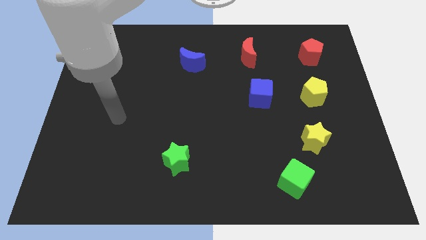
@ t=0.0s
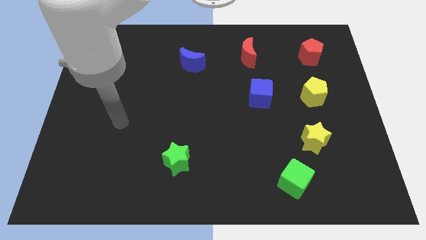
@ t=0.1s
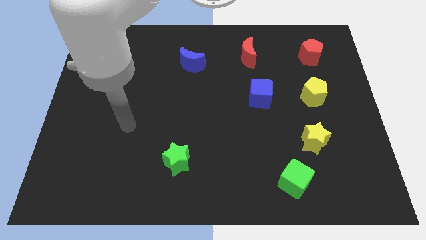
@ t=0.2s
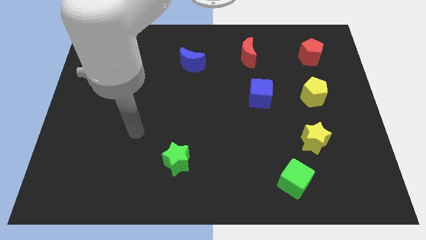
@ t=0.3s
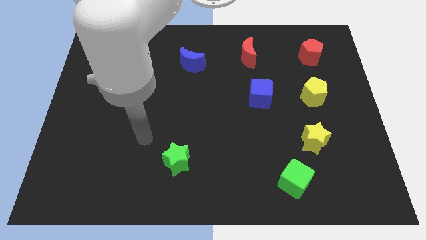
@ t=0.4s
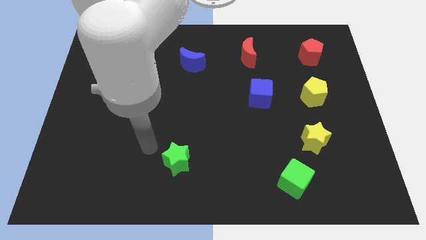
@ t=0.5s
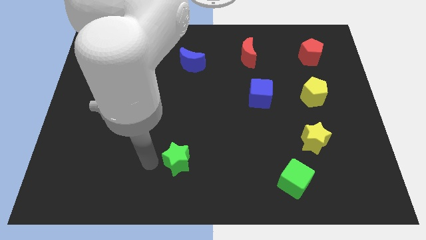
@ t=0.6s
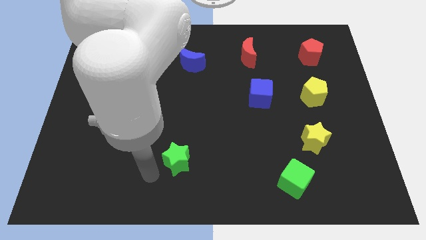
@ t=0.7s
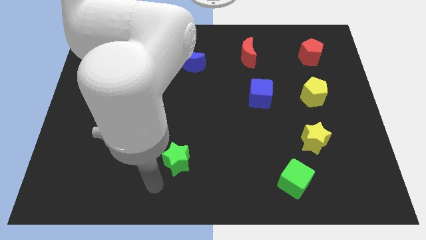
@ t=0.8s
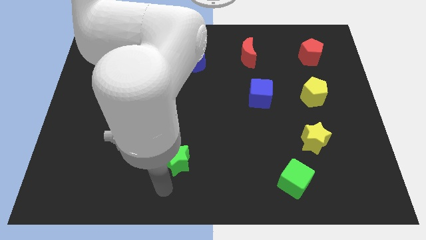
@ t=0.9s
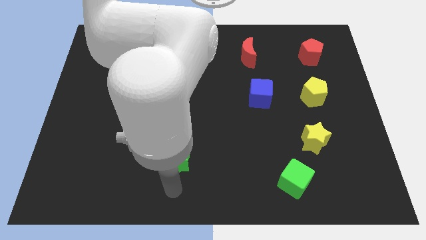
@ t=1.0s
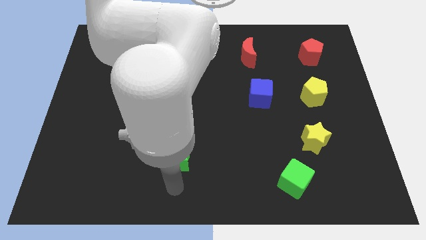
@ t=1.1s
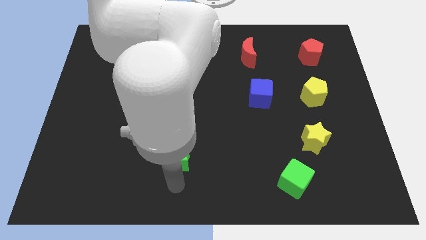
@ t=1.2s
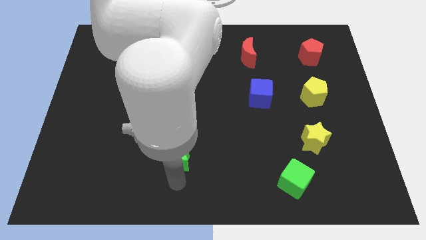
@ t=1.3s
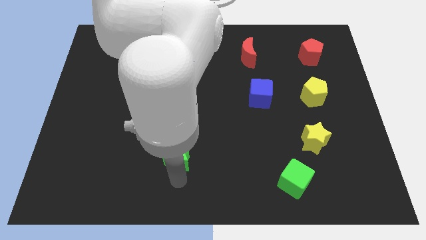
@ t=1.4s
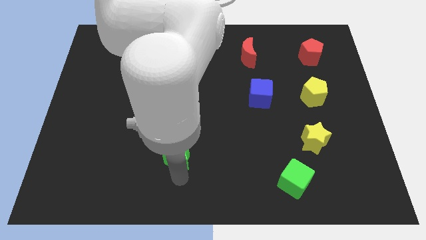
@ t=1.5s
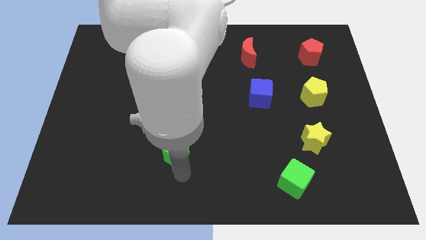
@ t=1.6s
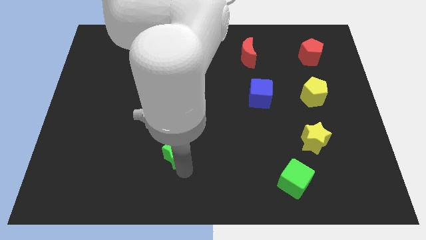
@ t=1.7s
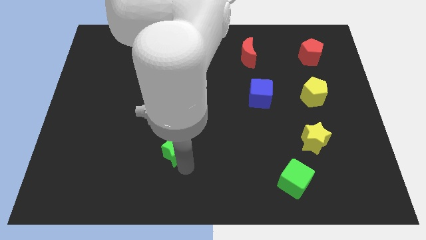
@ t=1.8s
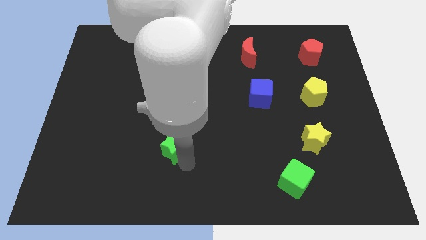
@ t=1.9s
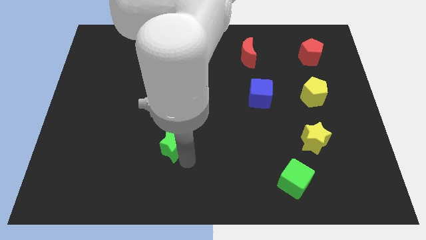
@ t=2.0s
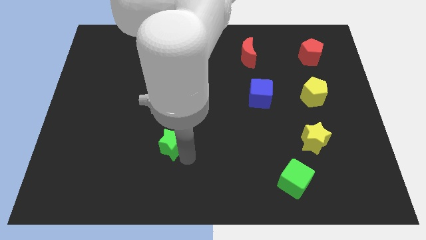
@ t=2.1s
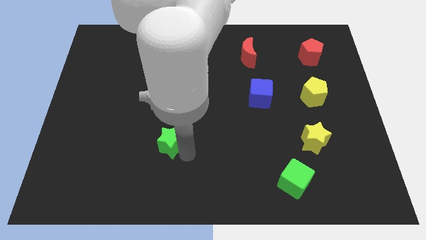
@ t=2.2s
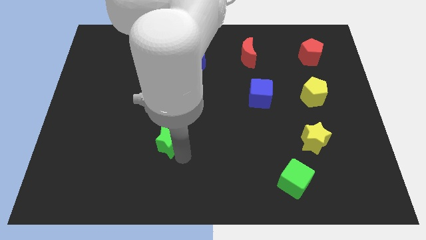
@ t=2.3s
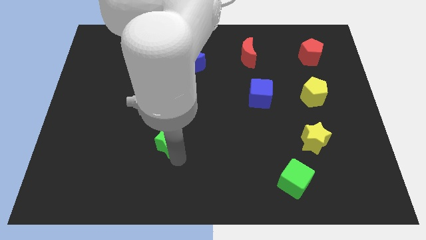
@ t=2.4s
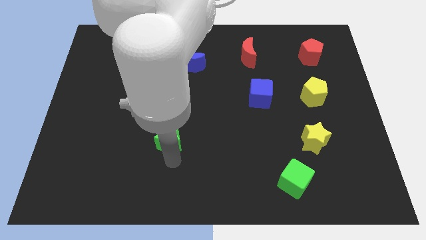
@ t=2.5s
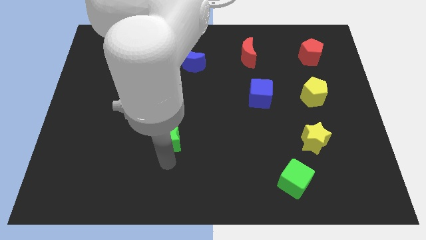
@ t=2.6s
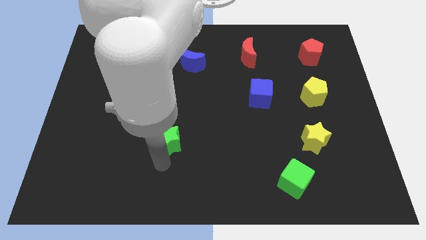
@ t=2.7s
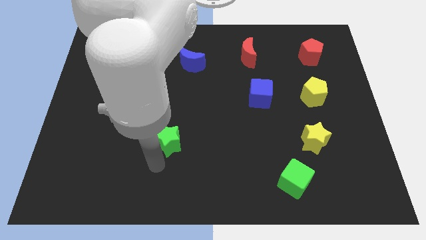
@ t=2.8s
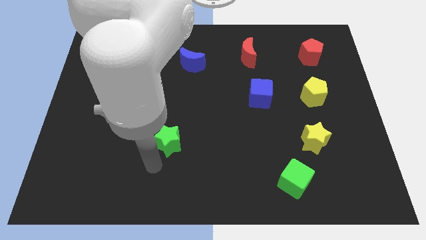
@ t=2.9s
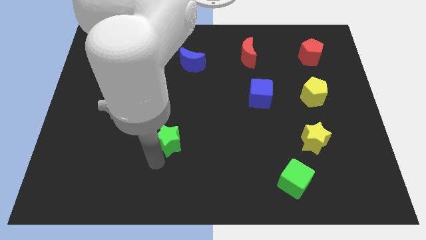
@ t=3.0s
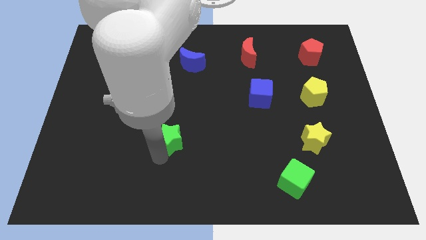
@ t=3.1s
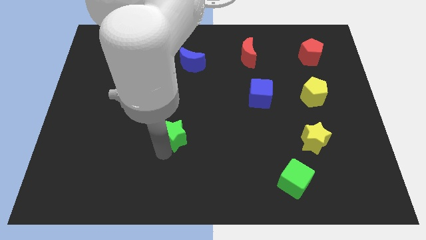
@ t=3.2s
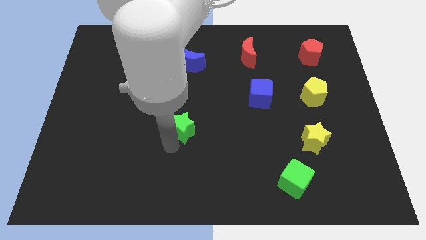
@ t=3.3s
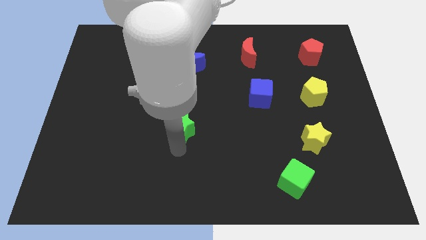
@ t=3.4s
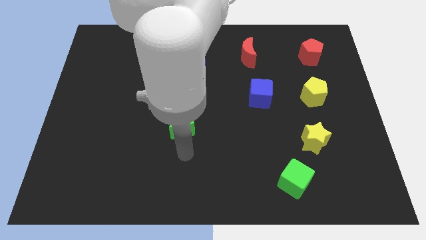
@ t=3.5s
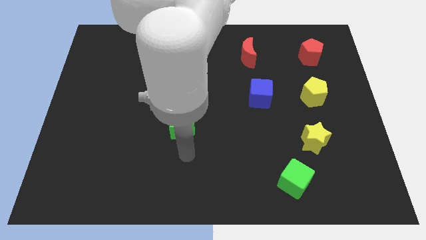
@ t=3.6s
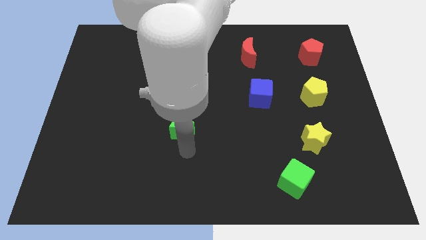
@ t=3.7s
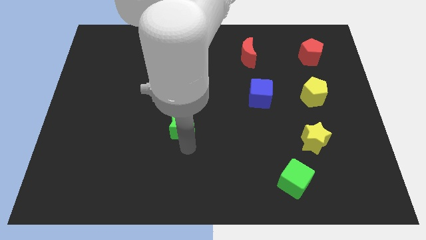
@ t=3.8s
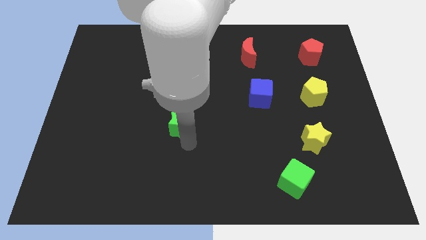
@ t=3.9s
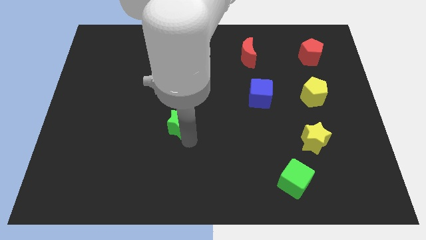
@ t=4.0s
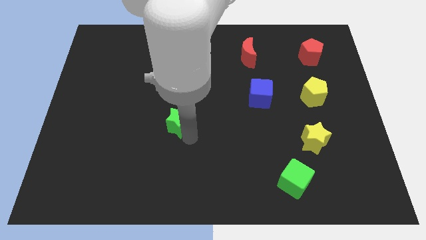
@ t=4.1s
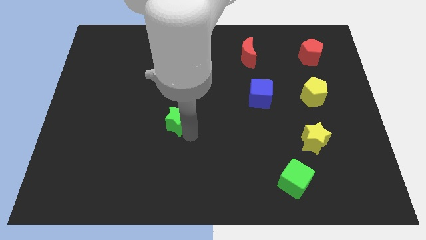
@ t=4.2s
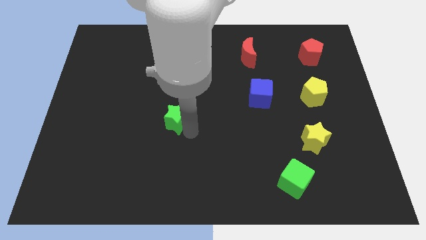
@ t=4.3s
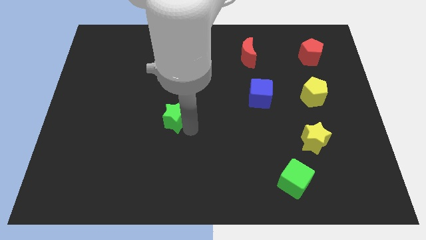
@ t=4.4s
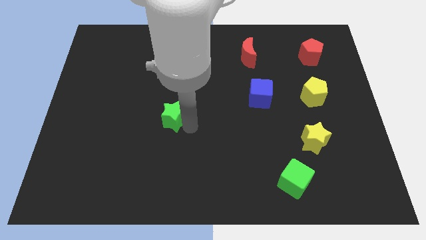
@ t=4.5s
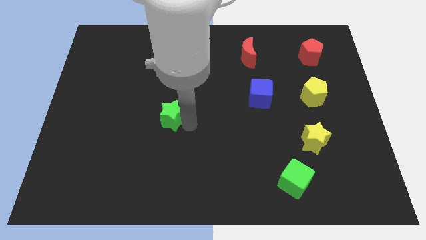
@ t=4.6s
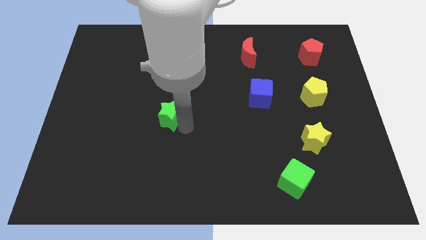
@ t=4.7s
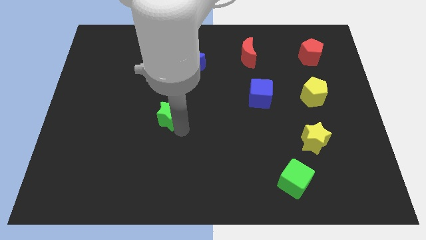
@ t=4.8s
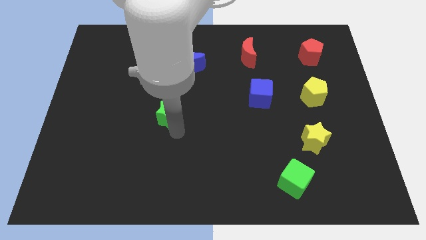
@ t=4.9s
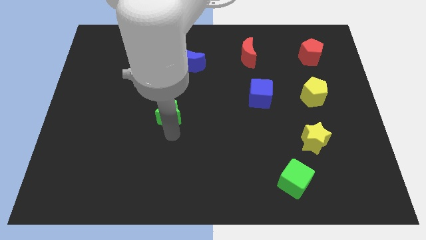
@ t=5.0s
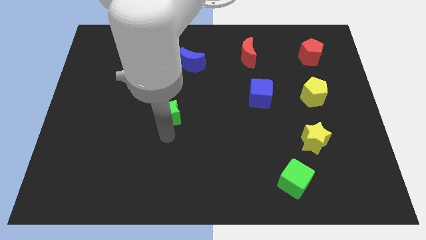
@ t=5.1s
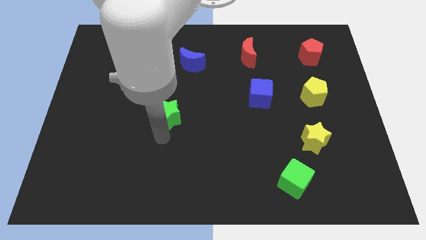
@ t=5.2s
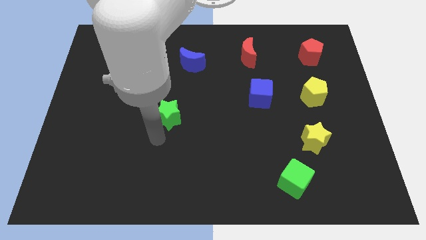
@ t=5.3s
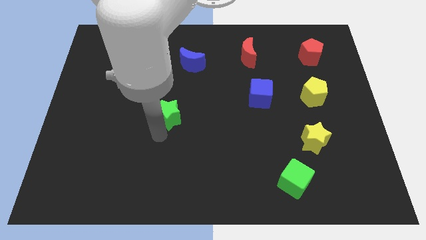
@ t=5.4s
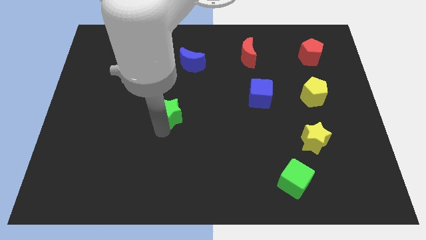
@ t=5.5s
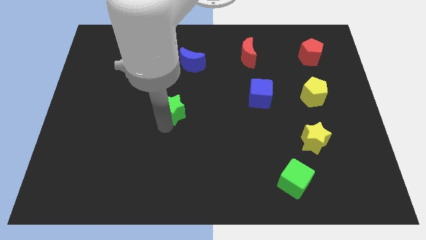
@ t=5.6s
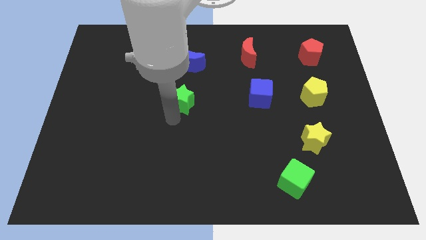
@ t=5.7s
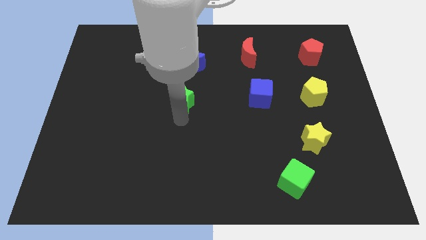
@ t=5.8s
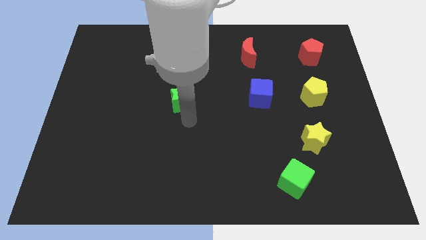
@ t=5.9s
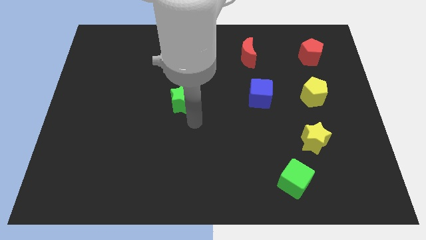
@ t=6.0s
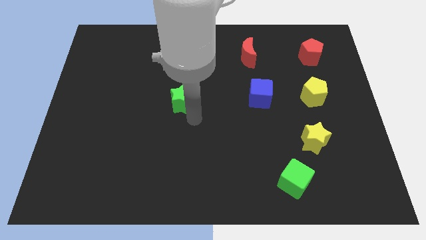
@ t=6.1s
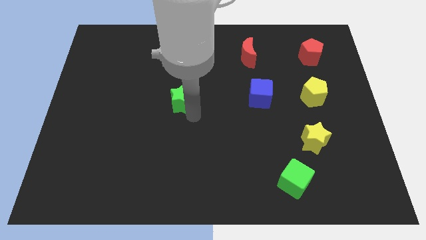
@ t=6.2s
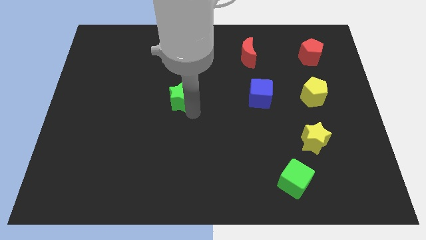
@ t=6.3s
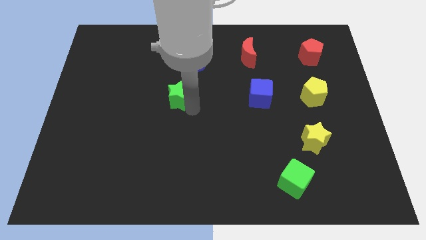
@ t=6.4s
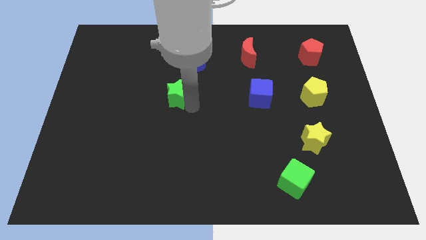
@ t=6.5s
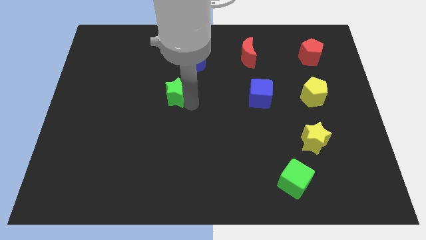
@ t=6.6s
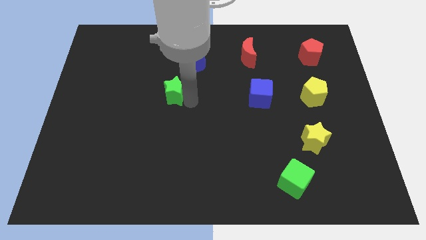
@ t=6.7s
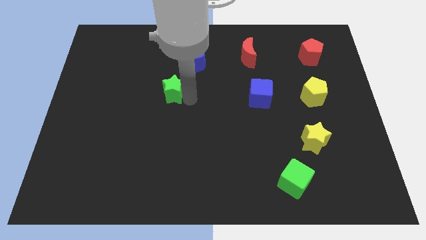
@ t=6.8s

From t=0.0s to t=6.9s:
slide the green star to the bottom left side of the blue moon

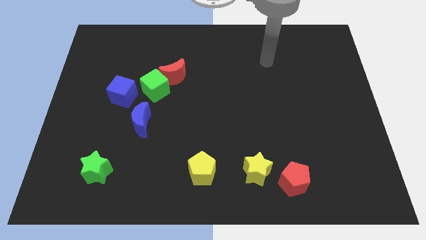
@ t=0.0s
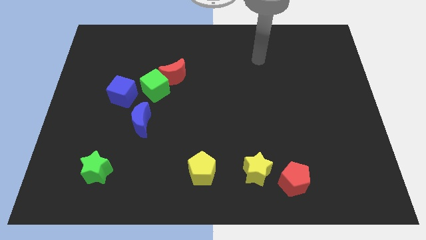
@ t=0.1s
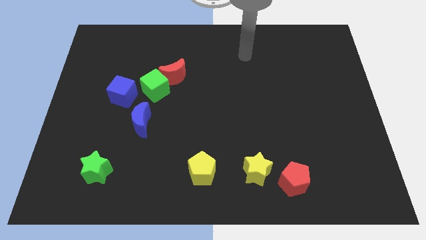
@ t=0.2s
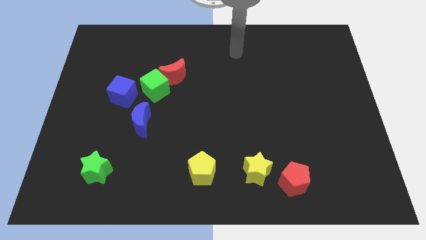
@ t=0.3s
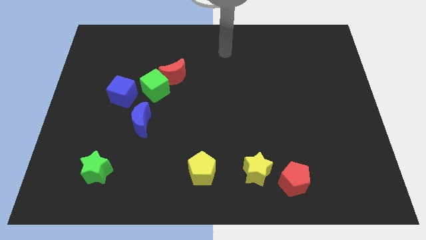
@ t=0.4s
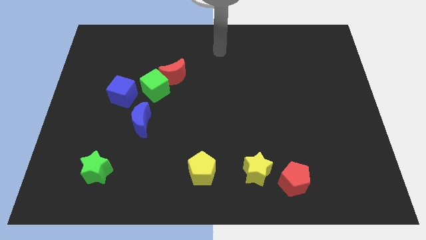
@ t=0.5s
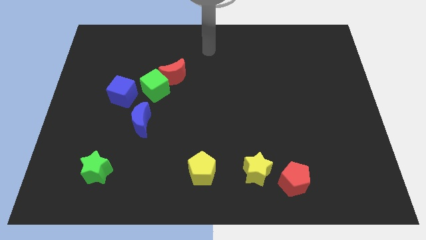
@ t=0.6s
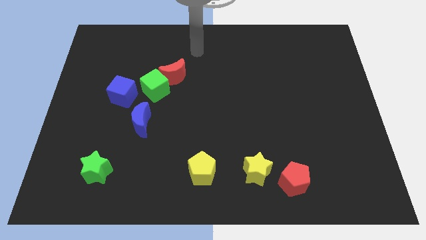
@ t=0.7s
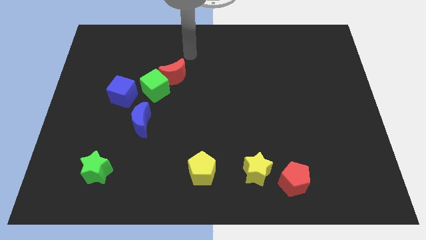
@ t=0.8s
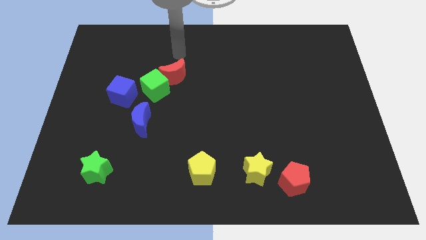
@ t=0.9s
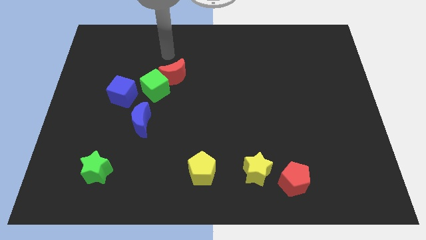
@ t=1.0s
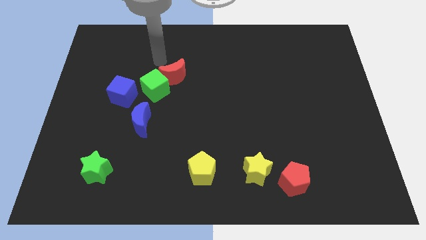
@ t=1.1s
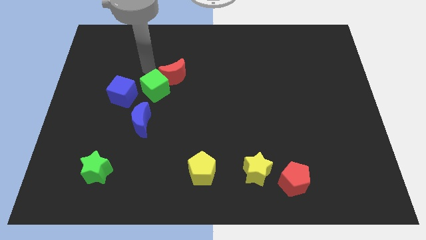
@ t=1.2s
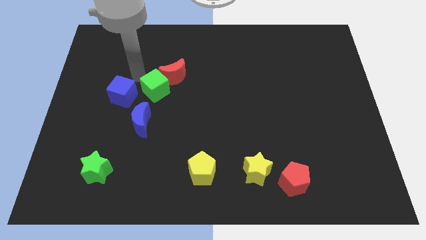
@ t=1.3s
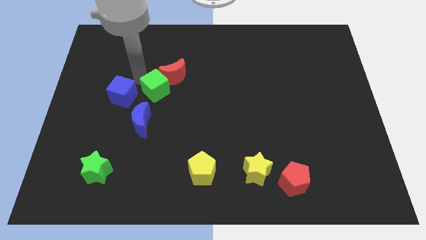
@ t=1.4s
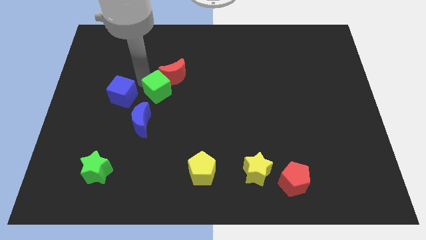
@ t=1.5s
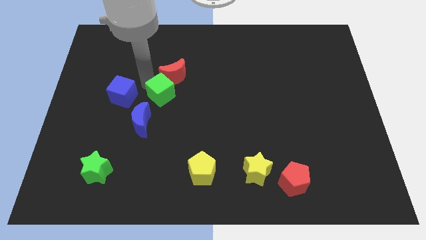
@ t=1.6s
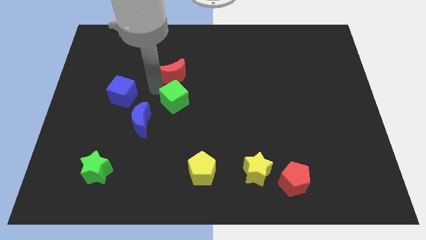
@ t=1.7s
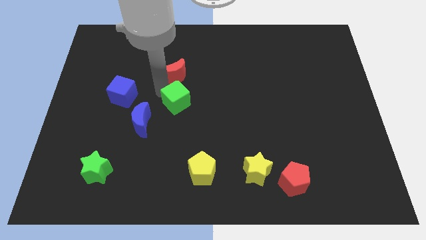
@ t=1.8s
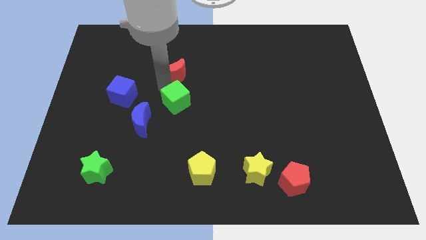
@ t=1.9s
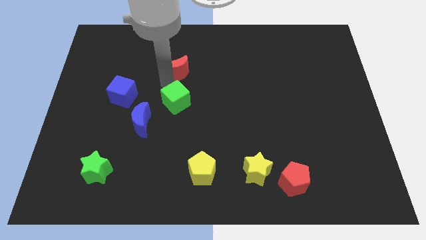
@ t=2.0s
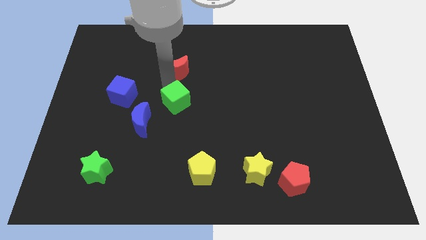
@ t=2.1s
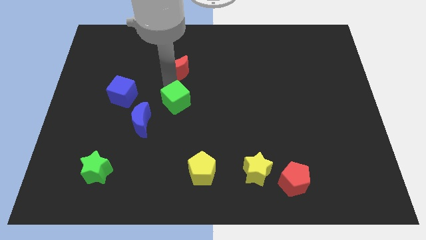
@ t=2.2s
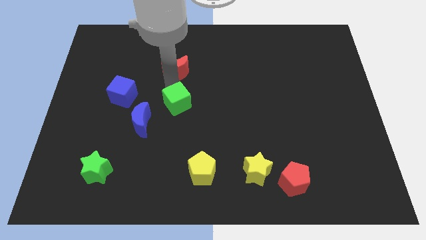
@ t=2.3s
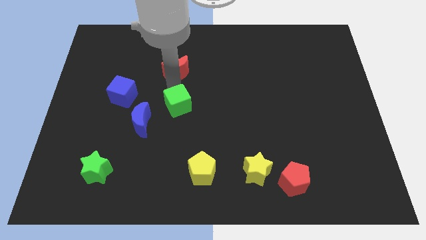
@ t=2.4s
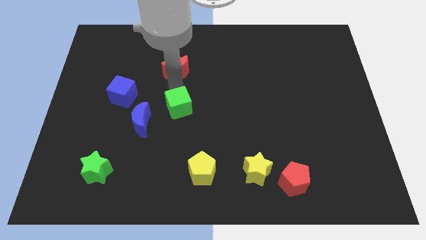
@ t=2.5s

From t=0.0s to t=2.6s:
move the green cube to the right side of the blue moon
